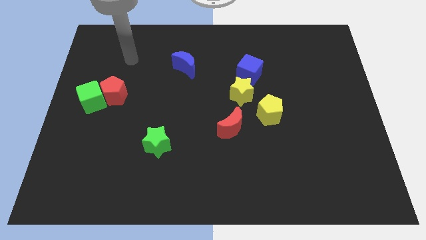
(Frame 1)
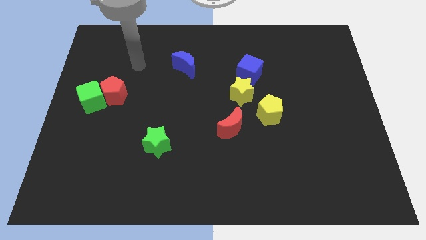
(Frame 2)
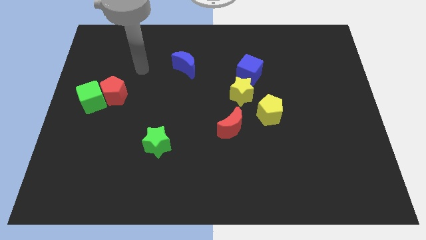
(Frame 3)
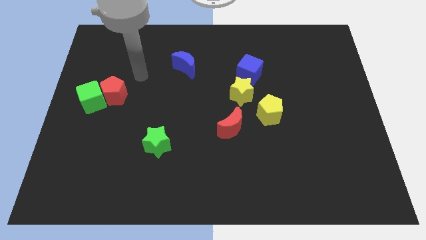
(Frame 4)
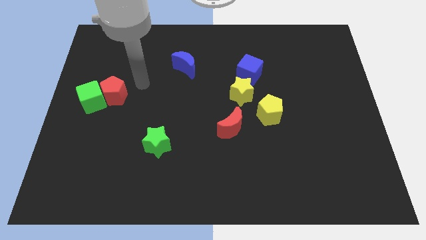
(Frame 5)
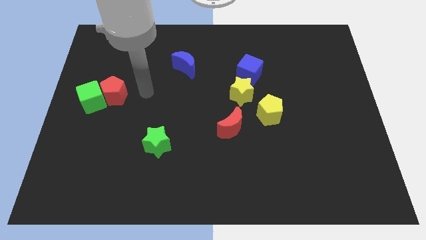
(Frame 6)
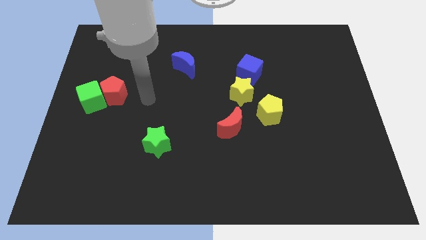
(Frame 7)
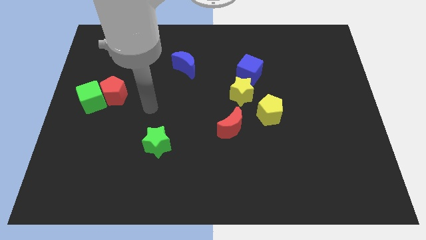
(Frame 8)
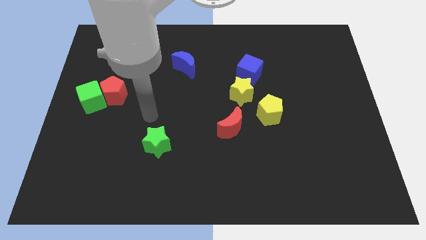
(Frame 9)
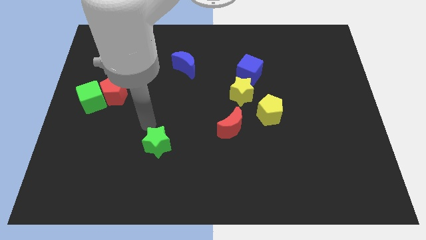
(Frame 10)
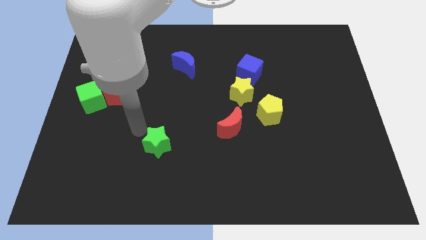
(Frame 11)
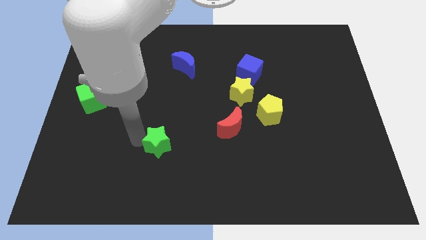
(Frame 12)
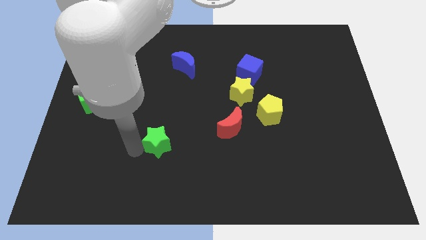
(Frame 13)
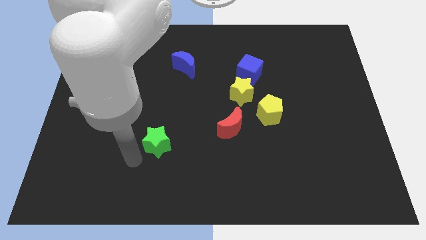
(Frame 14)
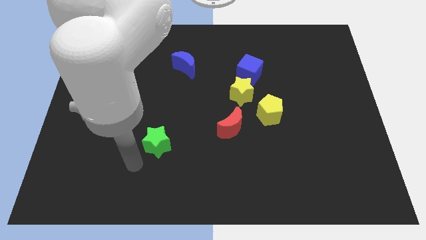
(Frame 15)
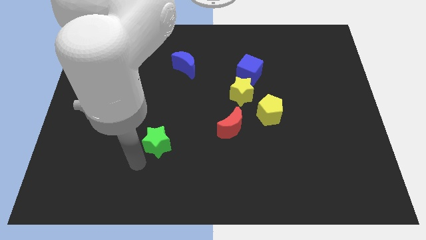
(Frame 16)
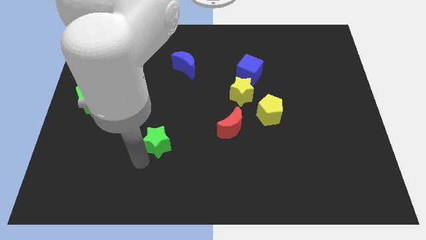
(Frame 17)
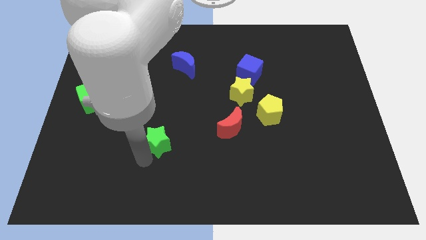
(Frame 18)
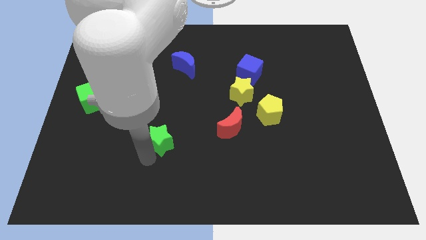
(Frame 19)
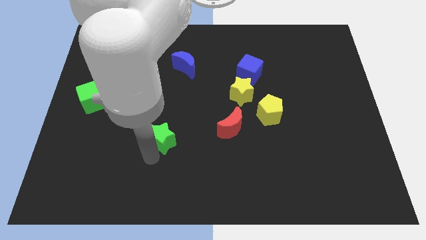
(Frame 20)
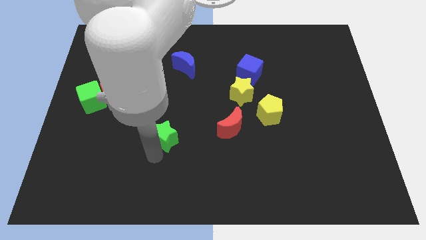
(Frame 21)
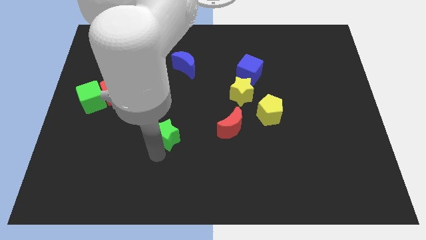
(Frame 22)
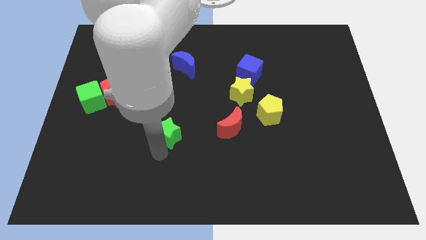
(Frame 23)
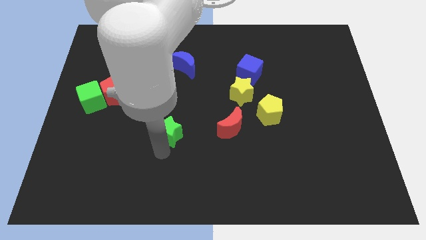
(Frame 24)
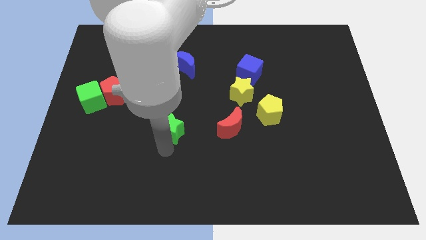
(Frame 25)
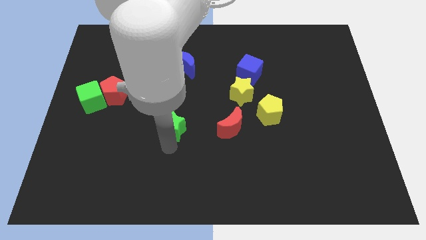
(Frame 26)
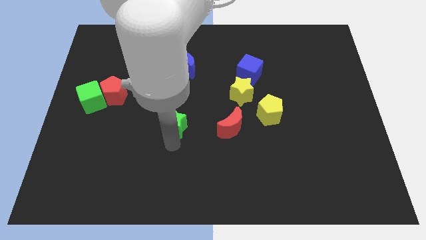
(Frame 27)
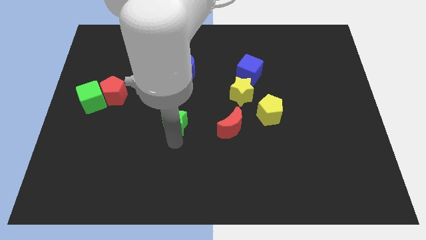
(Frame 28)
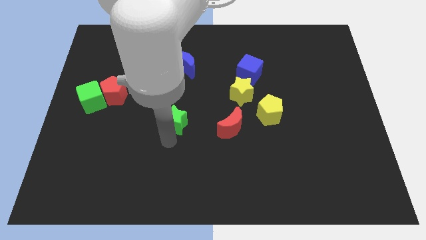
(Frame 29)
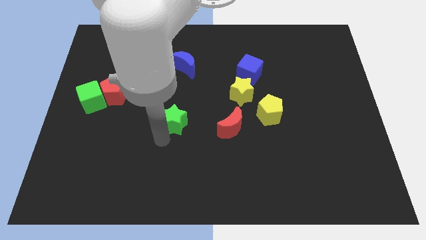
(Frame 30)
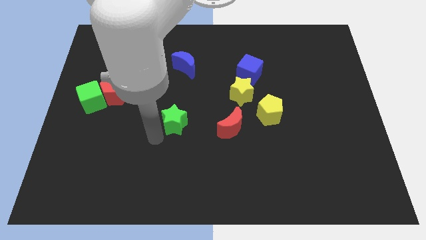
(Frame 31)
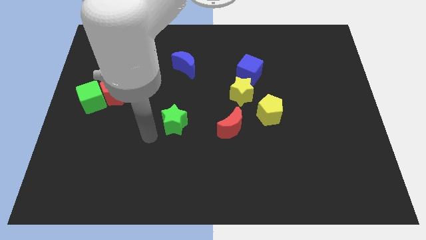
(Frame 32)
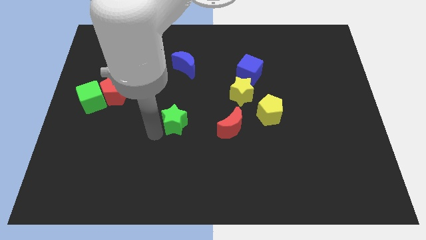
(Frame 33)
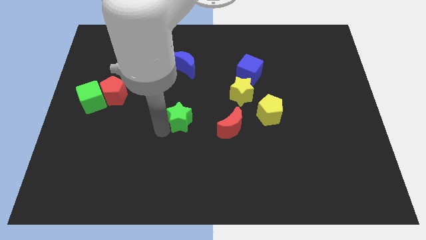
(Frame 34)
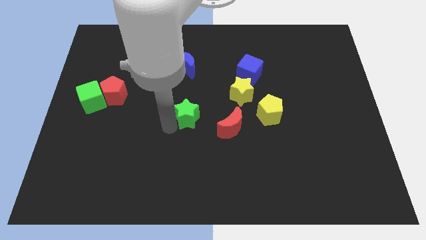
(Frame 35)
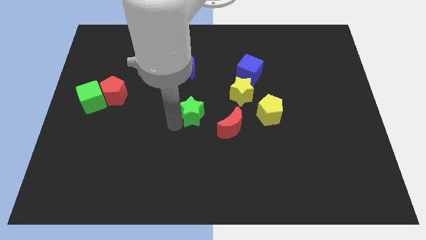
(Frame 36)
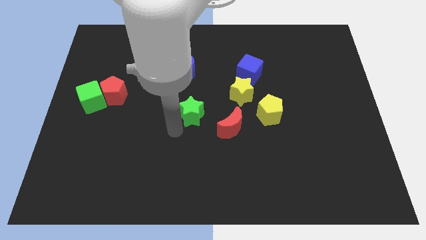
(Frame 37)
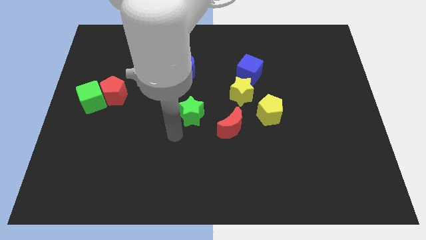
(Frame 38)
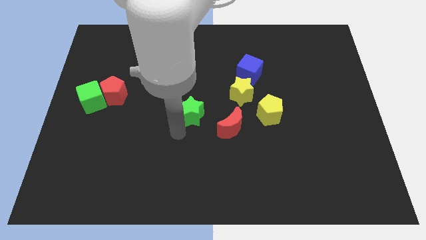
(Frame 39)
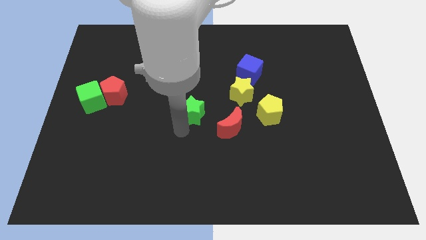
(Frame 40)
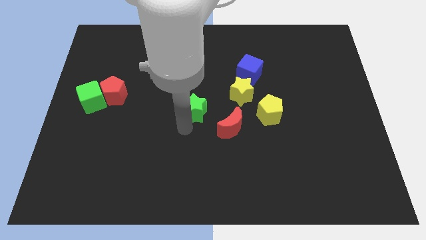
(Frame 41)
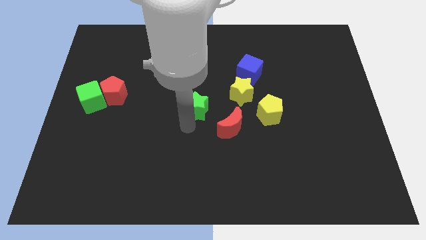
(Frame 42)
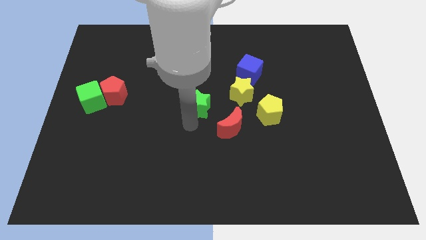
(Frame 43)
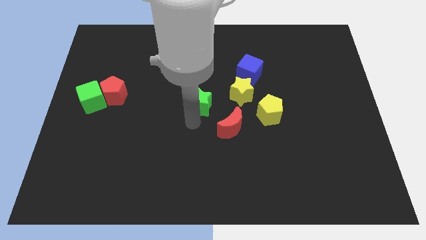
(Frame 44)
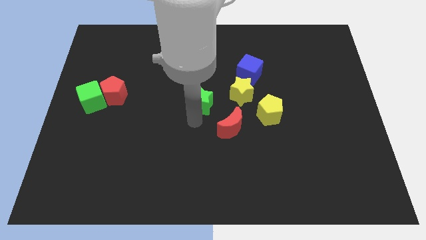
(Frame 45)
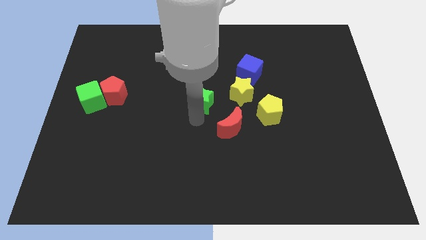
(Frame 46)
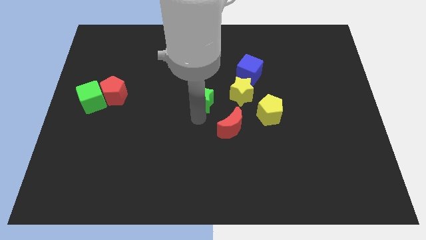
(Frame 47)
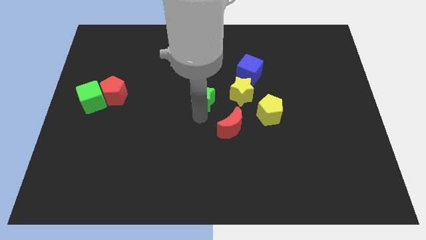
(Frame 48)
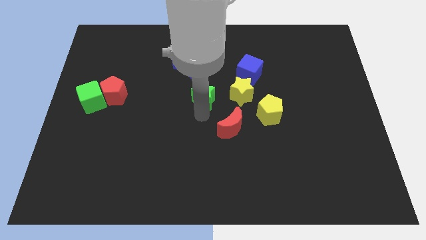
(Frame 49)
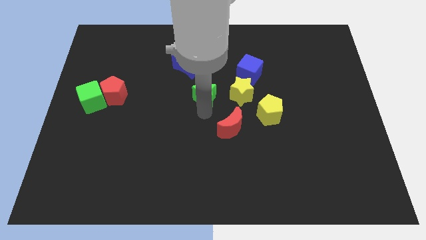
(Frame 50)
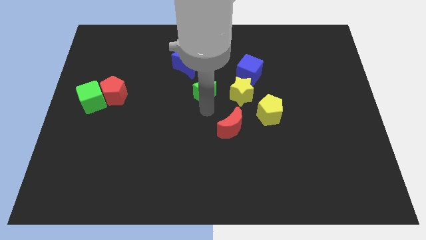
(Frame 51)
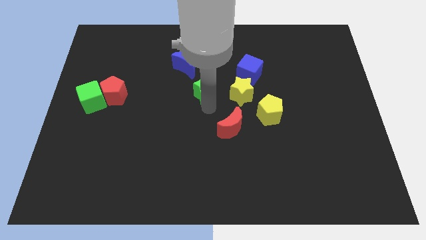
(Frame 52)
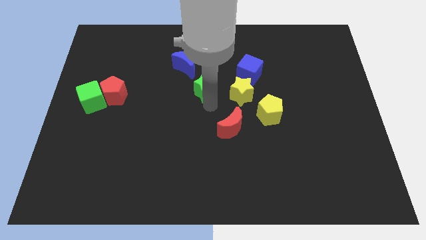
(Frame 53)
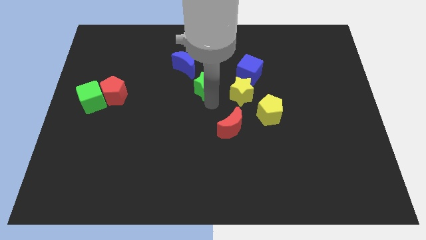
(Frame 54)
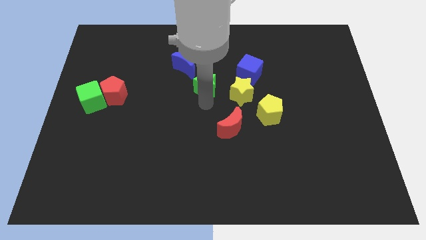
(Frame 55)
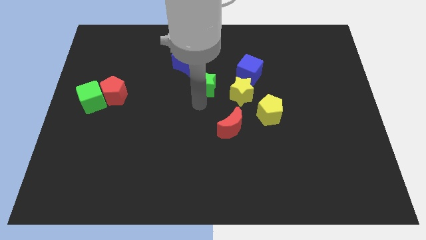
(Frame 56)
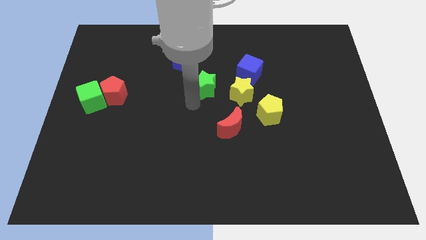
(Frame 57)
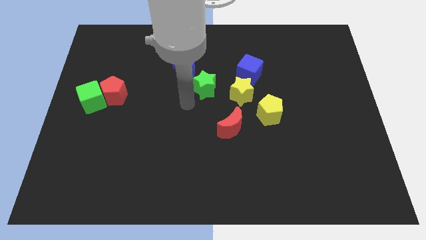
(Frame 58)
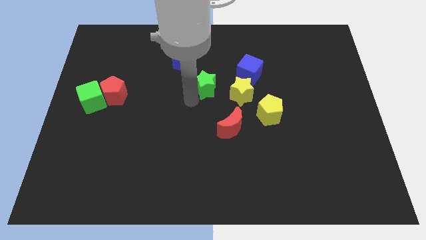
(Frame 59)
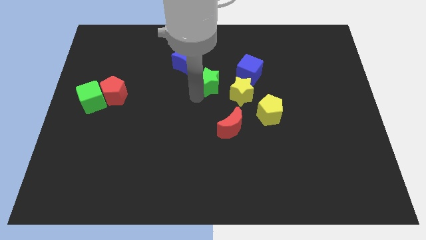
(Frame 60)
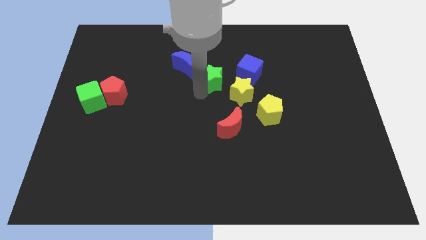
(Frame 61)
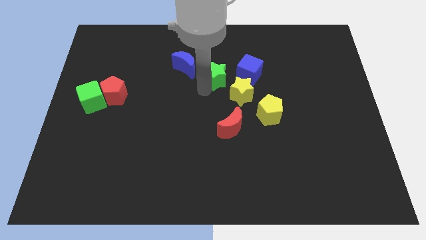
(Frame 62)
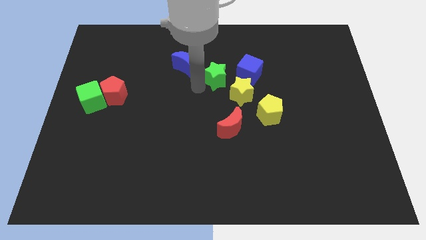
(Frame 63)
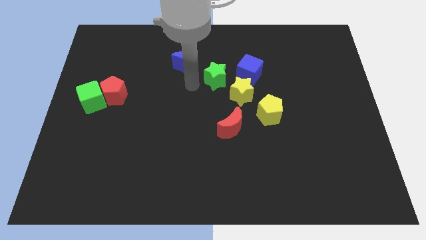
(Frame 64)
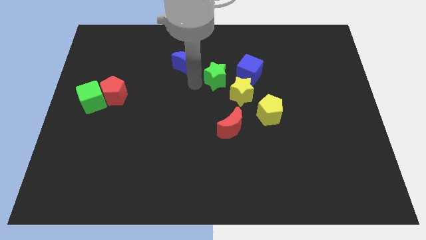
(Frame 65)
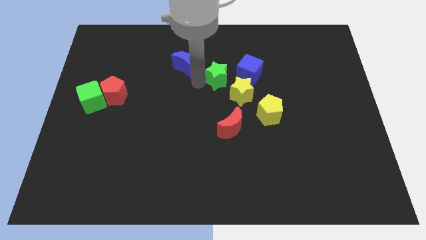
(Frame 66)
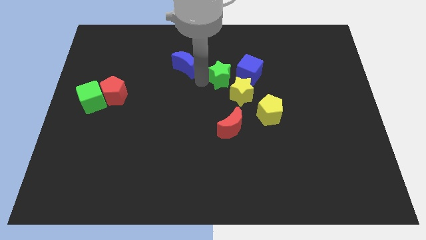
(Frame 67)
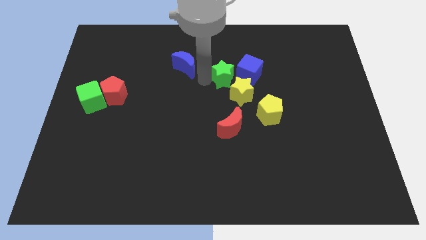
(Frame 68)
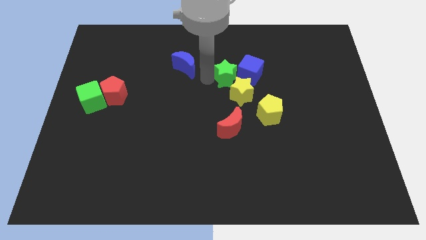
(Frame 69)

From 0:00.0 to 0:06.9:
move the green star close to the blue cube

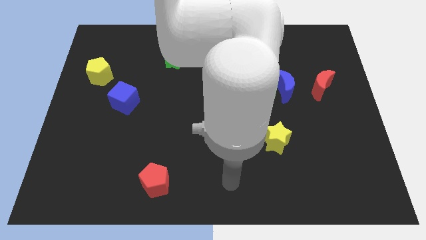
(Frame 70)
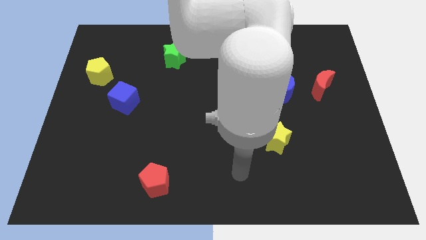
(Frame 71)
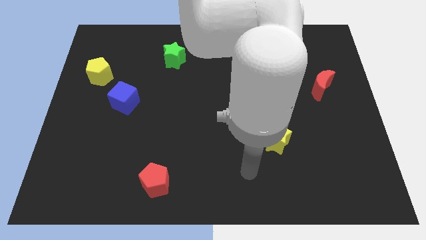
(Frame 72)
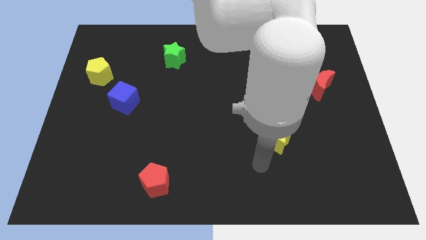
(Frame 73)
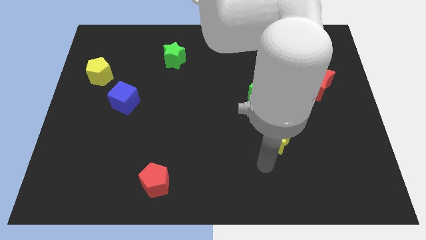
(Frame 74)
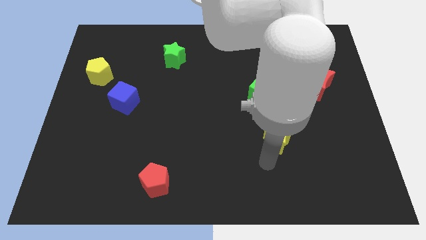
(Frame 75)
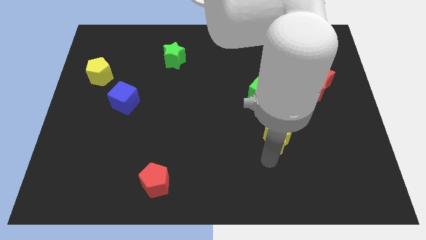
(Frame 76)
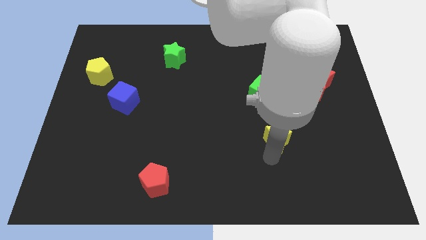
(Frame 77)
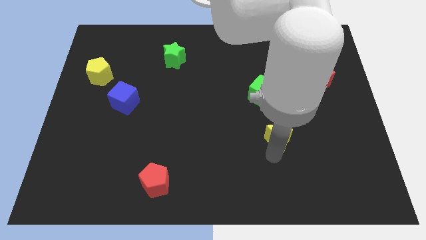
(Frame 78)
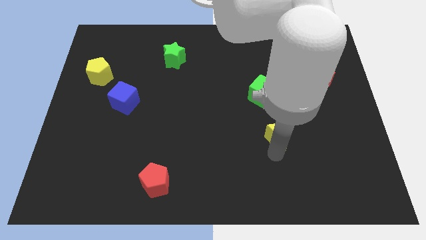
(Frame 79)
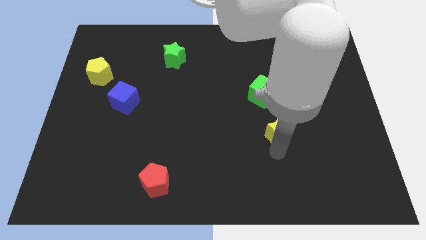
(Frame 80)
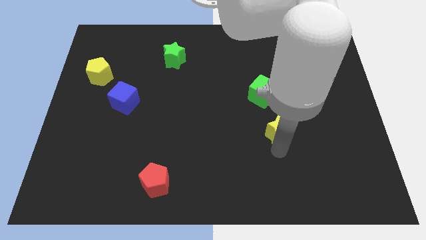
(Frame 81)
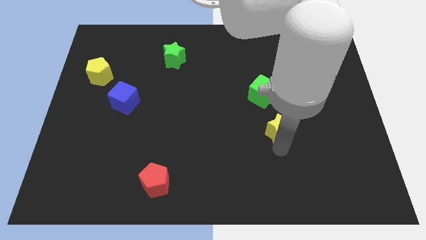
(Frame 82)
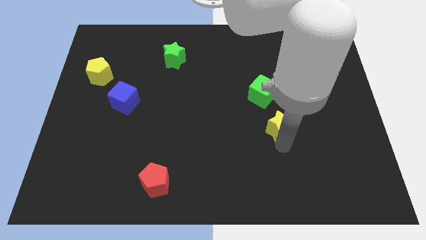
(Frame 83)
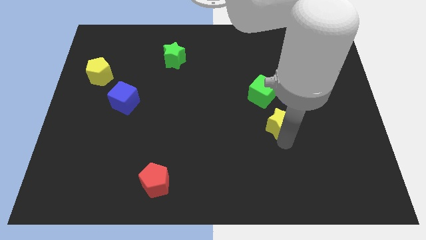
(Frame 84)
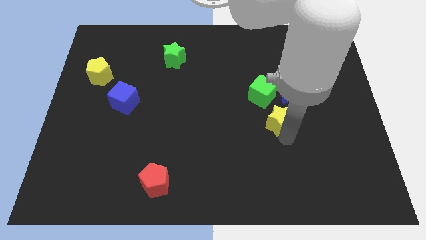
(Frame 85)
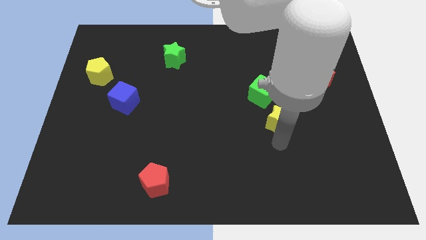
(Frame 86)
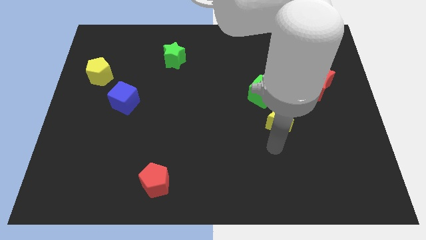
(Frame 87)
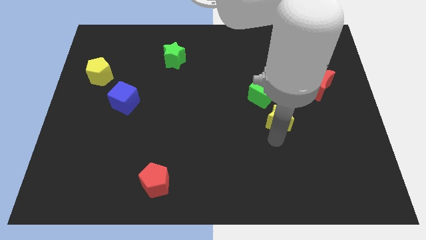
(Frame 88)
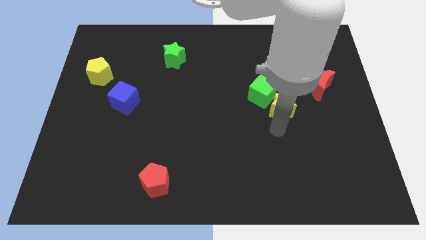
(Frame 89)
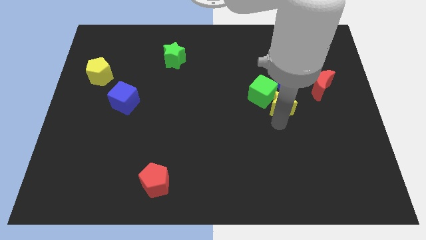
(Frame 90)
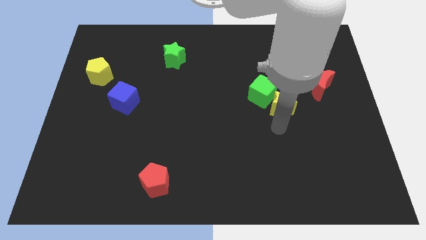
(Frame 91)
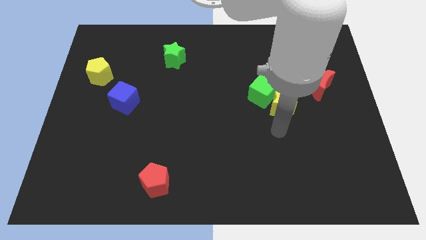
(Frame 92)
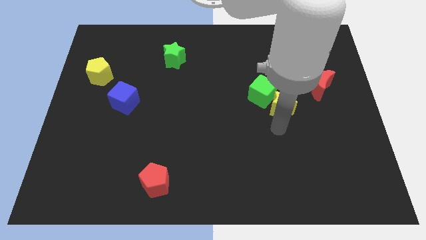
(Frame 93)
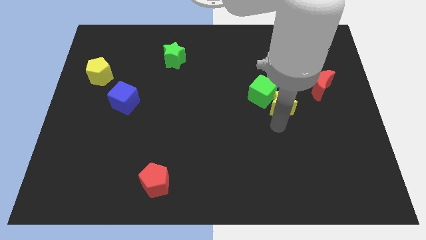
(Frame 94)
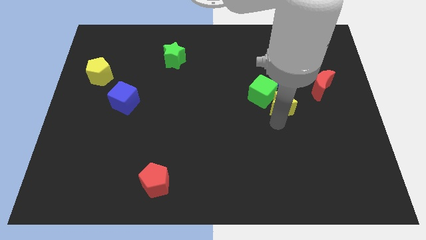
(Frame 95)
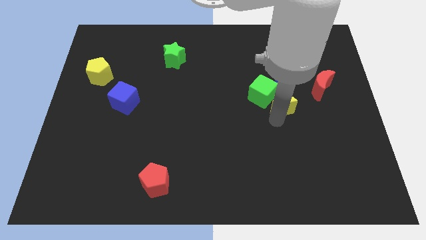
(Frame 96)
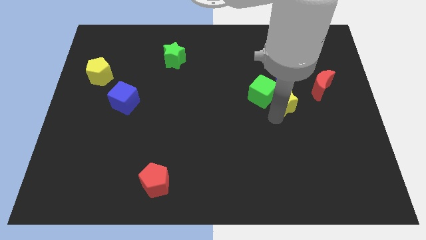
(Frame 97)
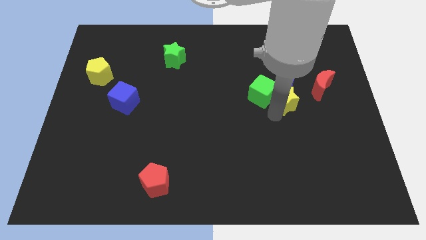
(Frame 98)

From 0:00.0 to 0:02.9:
move the yellow star next to the blue moon
